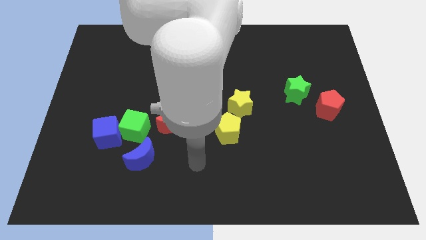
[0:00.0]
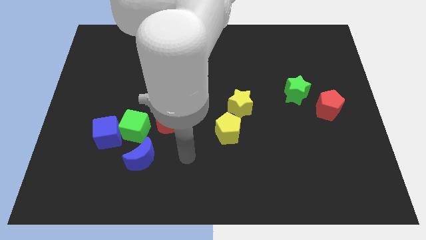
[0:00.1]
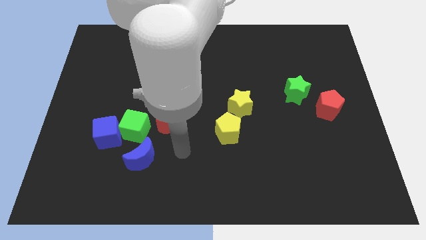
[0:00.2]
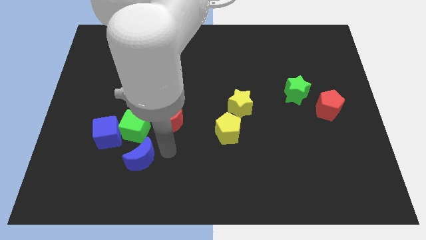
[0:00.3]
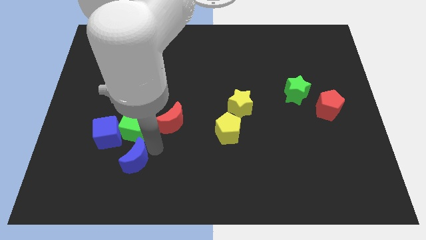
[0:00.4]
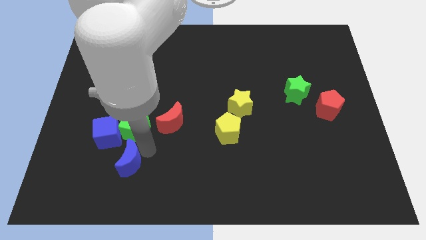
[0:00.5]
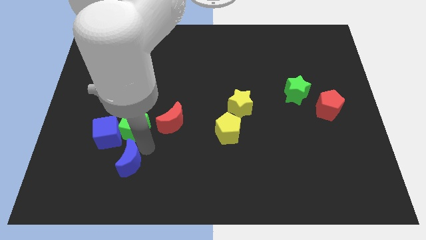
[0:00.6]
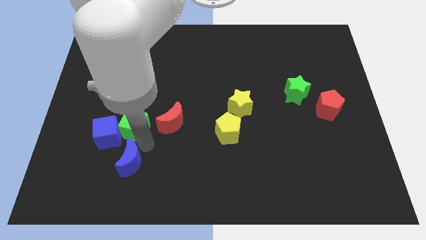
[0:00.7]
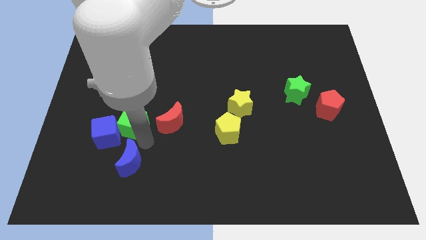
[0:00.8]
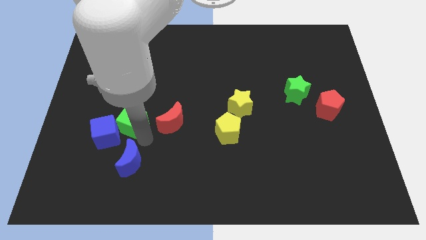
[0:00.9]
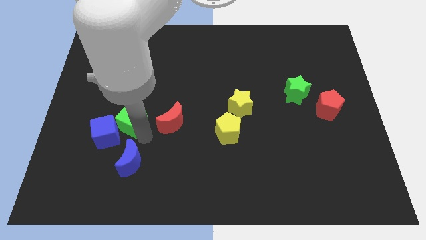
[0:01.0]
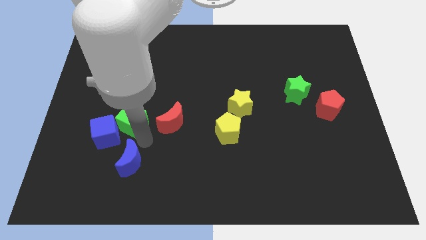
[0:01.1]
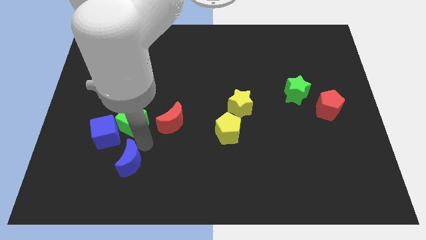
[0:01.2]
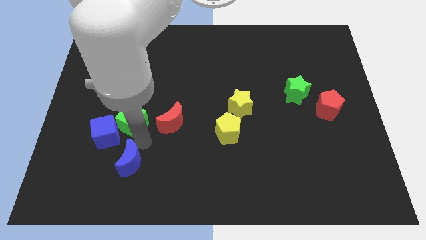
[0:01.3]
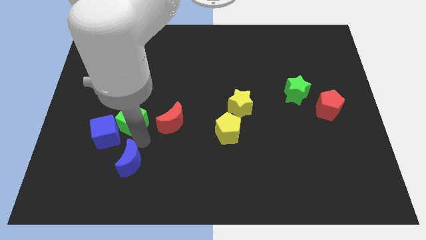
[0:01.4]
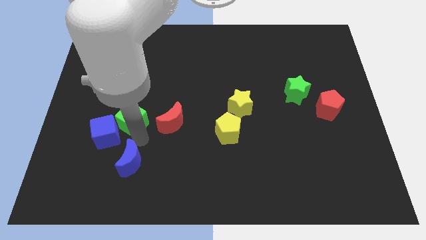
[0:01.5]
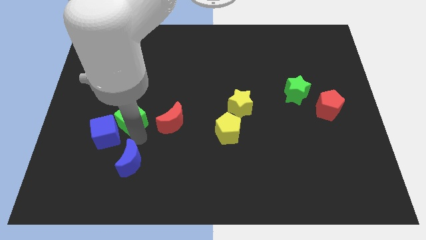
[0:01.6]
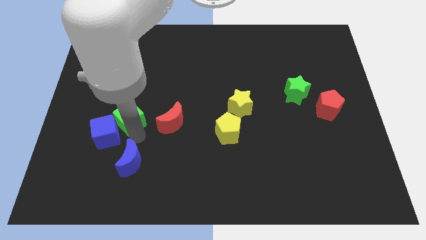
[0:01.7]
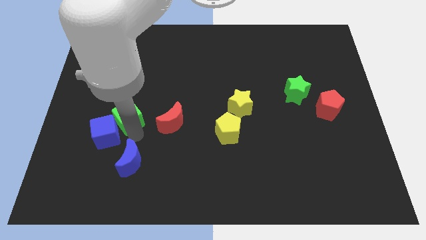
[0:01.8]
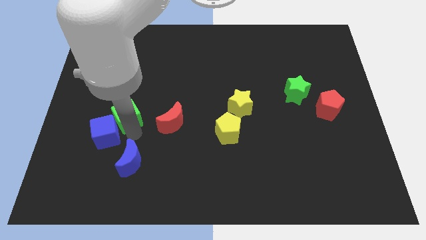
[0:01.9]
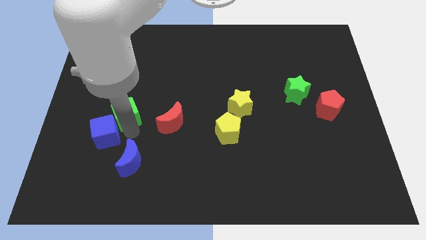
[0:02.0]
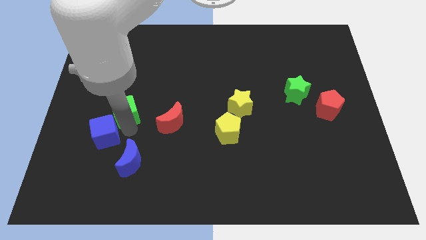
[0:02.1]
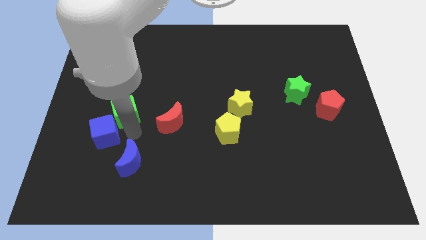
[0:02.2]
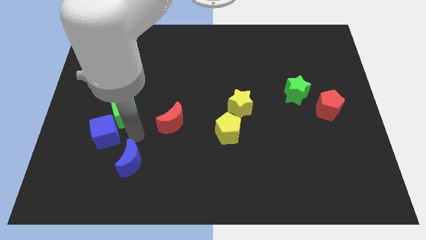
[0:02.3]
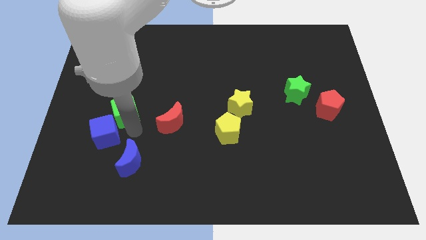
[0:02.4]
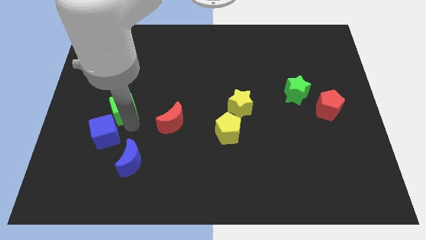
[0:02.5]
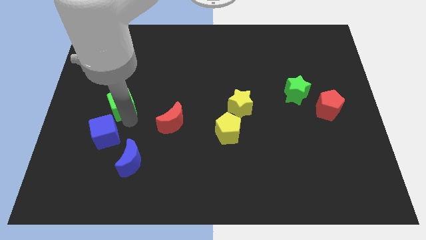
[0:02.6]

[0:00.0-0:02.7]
pull the green cube apart from the group

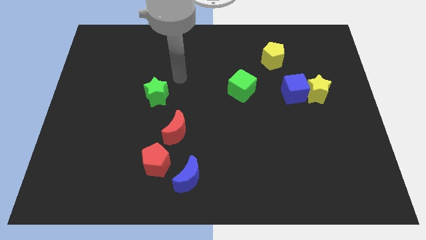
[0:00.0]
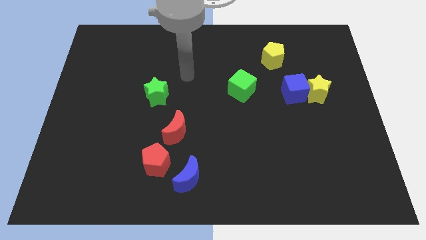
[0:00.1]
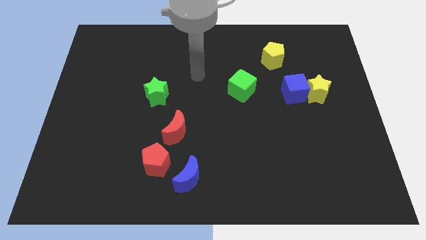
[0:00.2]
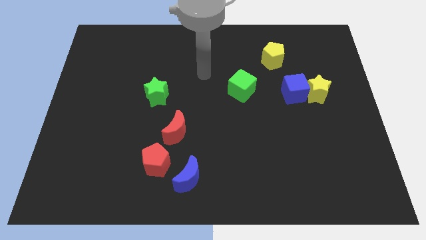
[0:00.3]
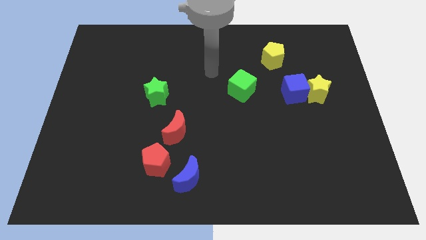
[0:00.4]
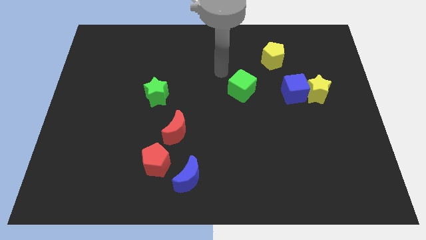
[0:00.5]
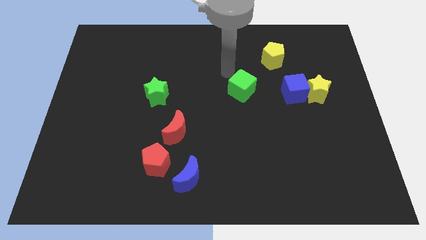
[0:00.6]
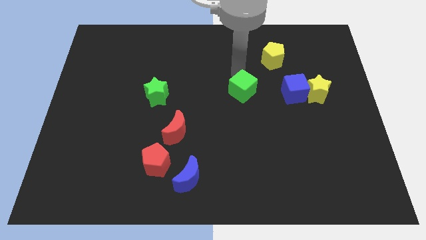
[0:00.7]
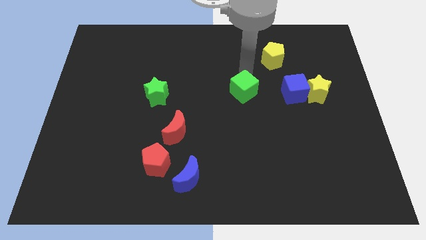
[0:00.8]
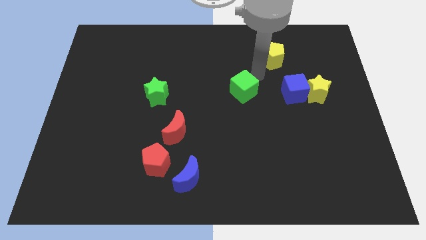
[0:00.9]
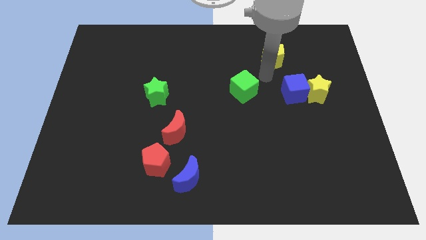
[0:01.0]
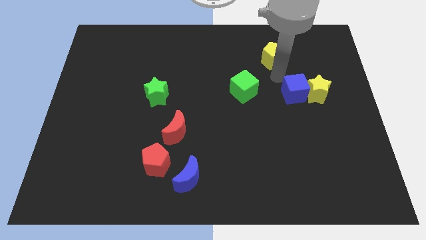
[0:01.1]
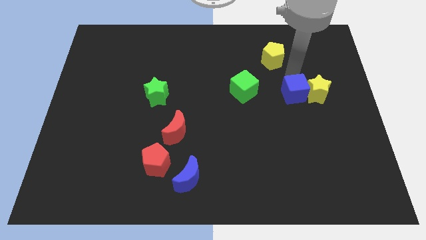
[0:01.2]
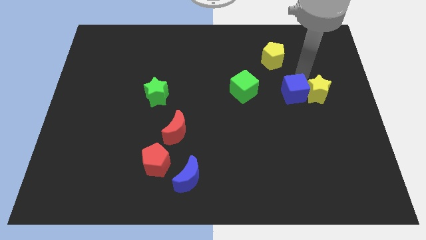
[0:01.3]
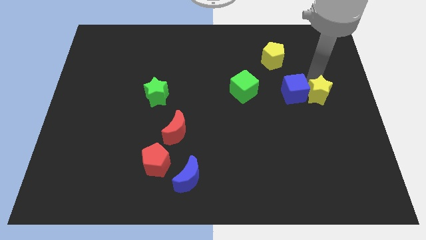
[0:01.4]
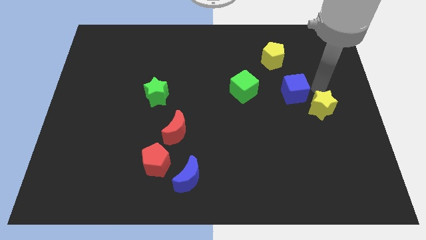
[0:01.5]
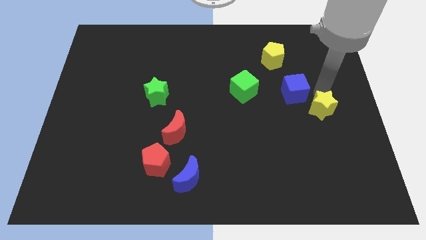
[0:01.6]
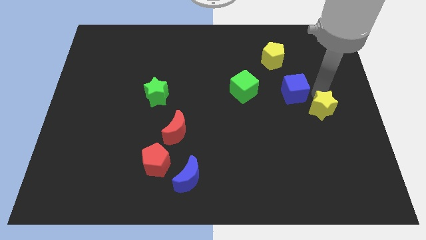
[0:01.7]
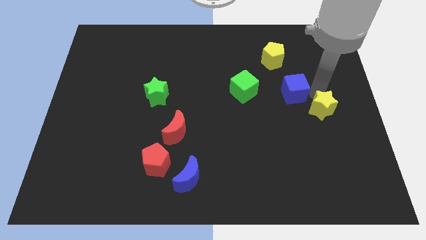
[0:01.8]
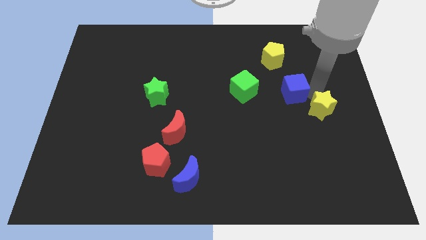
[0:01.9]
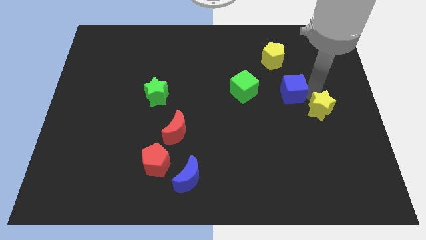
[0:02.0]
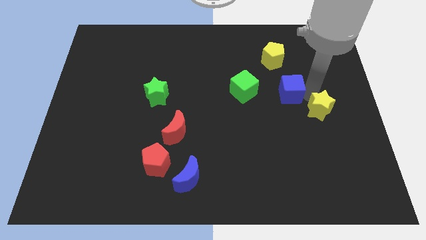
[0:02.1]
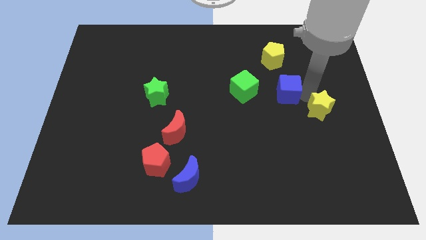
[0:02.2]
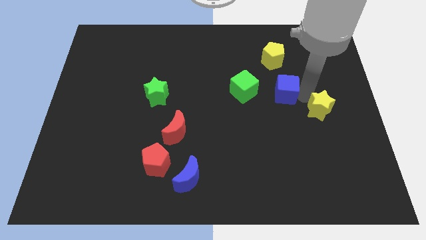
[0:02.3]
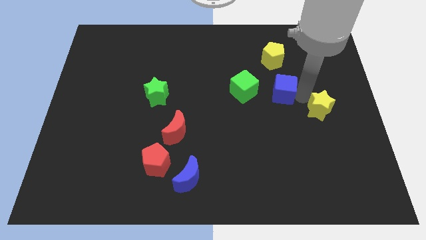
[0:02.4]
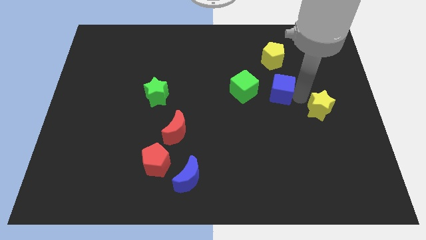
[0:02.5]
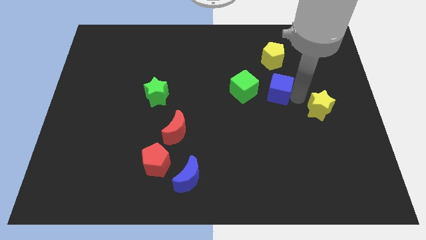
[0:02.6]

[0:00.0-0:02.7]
pull the blue cube apart from the yellow star

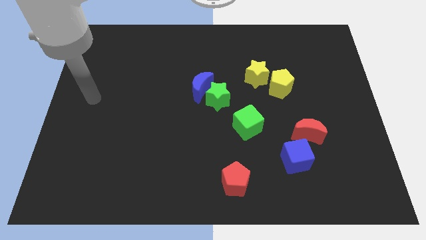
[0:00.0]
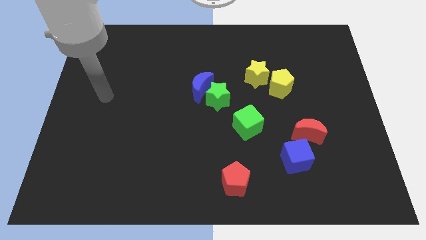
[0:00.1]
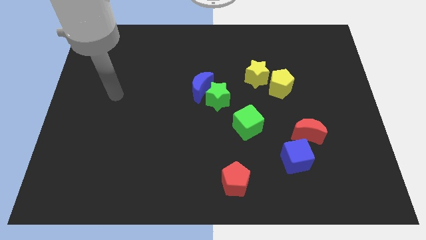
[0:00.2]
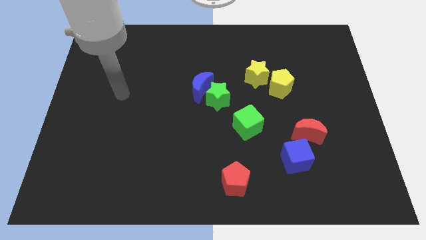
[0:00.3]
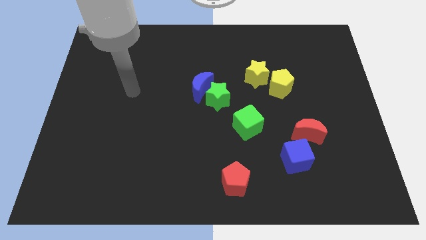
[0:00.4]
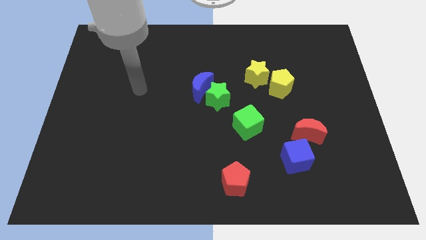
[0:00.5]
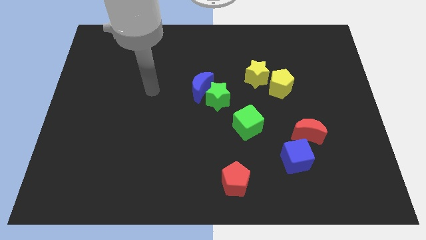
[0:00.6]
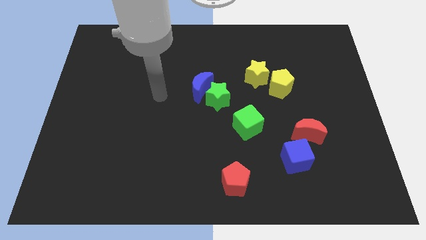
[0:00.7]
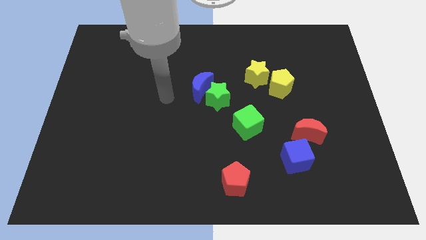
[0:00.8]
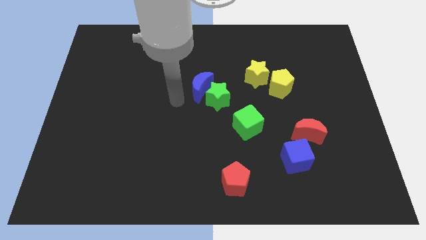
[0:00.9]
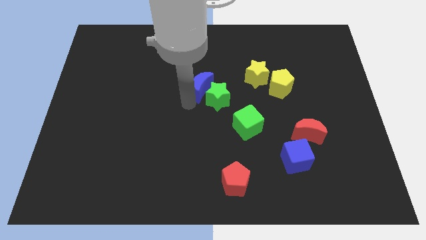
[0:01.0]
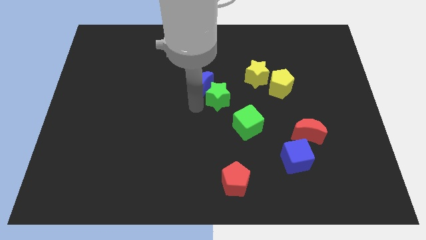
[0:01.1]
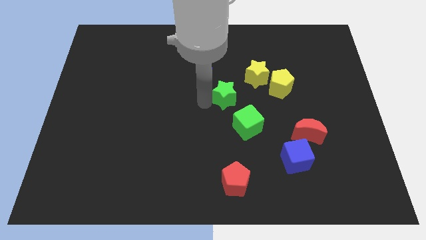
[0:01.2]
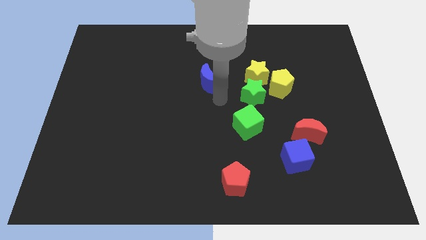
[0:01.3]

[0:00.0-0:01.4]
separate the blue moon from the green star

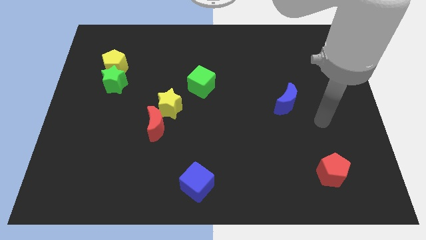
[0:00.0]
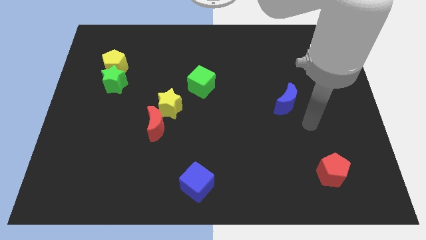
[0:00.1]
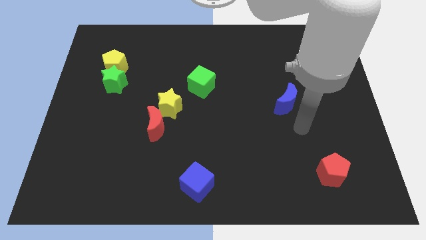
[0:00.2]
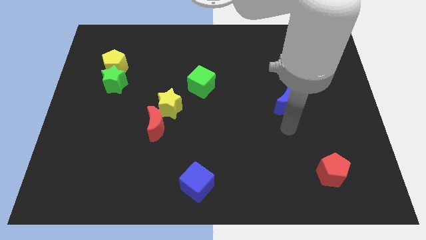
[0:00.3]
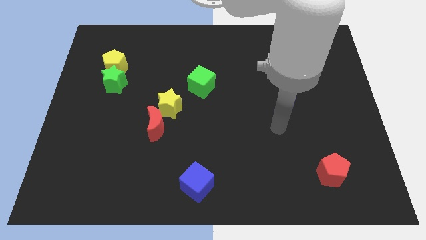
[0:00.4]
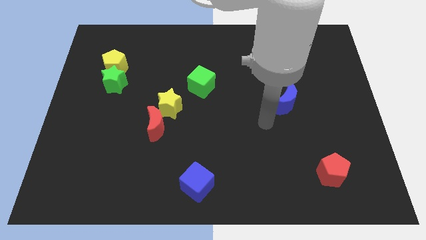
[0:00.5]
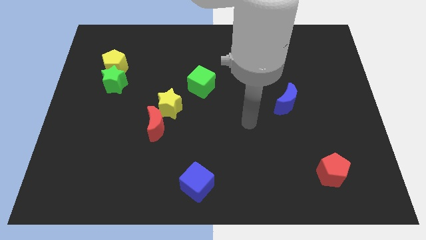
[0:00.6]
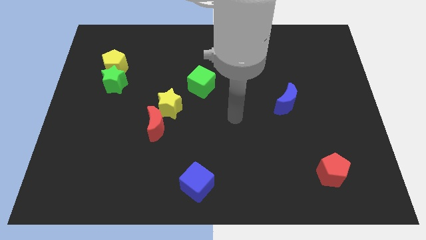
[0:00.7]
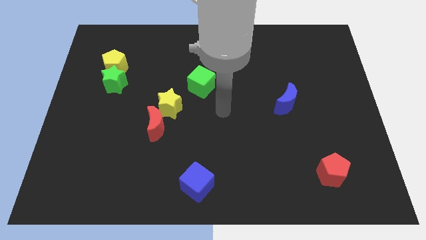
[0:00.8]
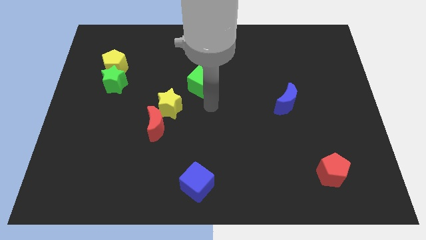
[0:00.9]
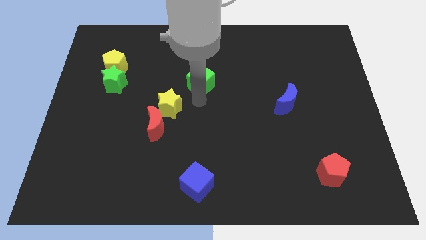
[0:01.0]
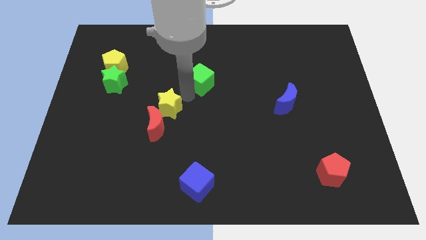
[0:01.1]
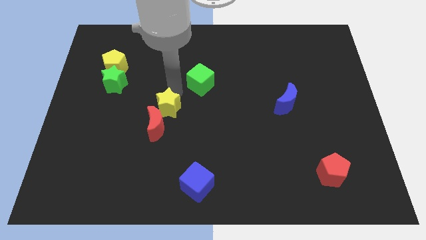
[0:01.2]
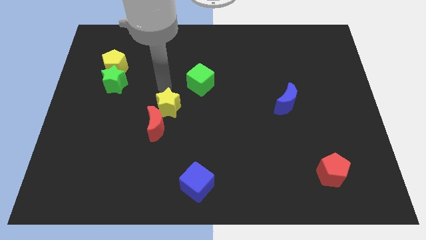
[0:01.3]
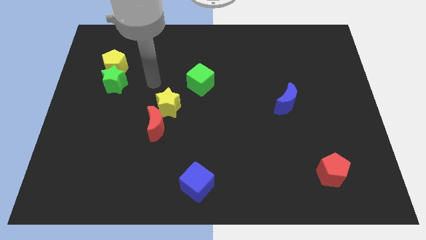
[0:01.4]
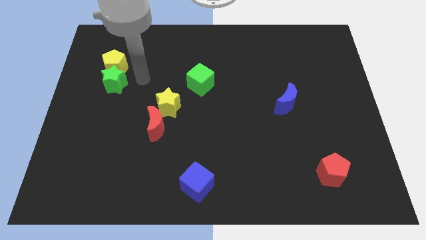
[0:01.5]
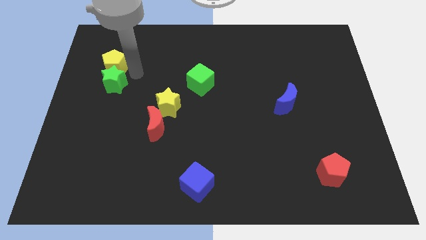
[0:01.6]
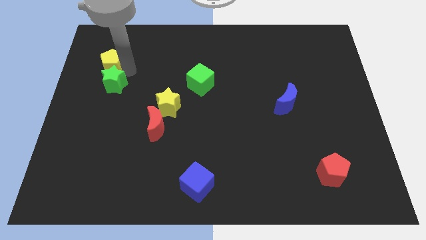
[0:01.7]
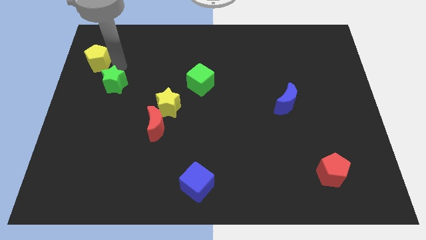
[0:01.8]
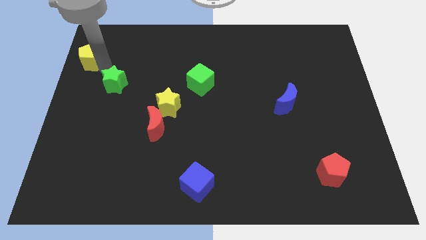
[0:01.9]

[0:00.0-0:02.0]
separate the green star from the yellow pentagon

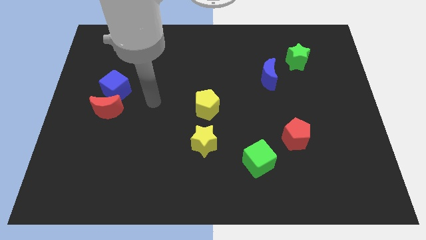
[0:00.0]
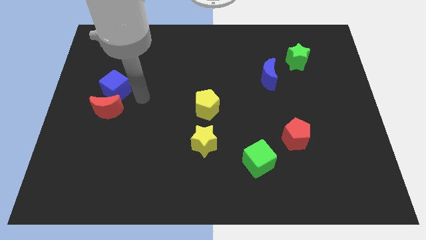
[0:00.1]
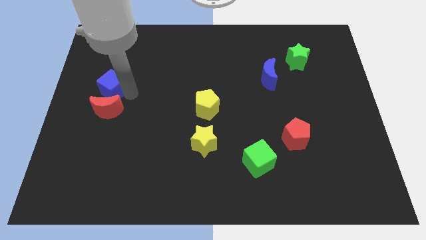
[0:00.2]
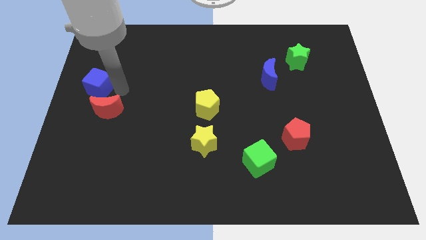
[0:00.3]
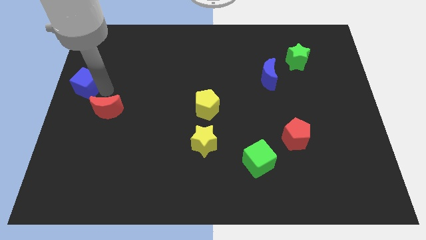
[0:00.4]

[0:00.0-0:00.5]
pull the red moon apart from the blue cube

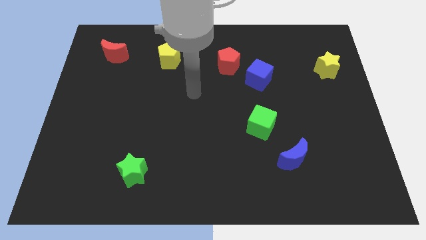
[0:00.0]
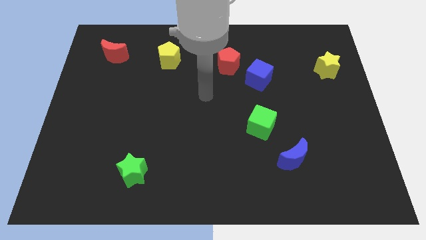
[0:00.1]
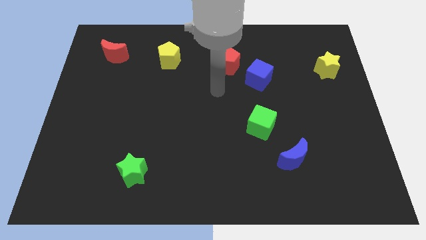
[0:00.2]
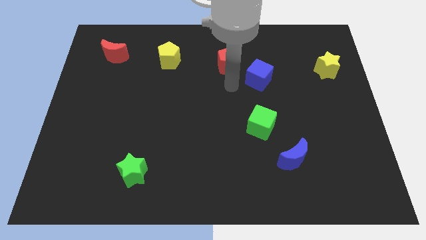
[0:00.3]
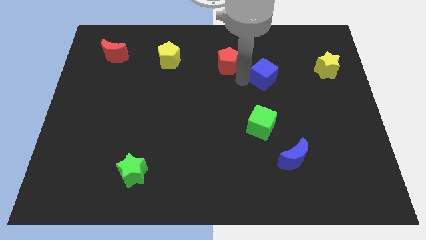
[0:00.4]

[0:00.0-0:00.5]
move the red pentagon away from the blue cube